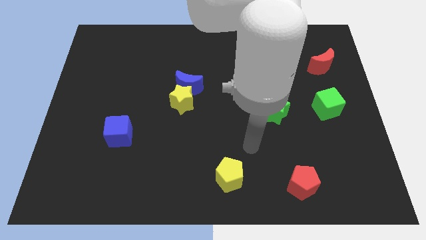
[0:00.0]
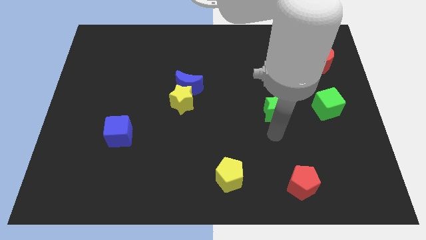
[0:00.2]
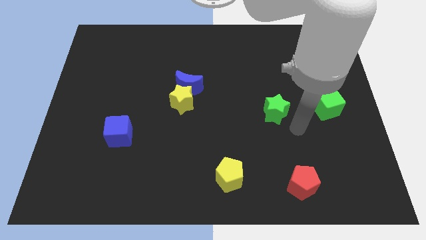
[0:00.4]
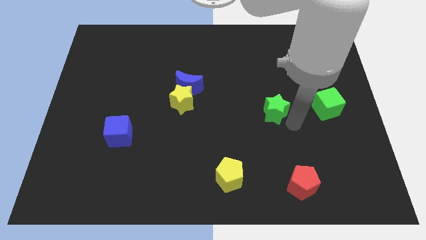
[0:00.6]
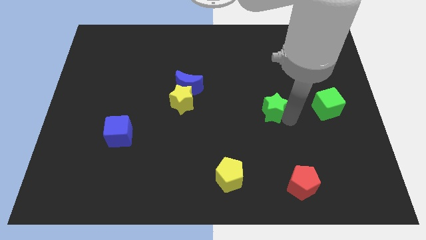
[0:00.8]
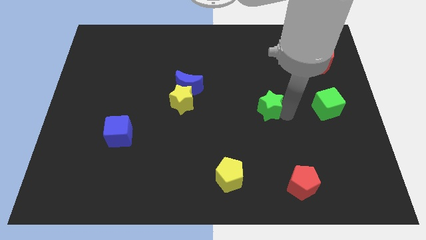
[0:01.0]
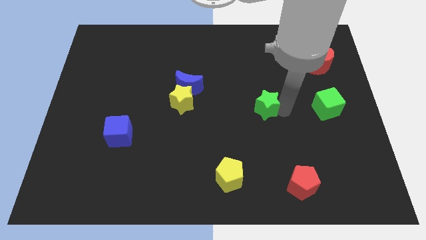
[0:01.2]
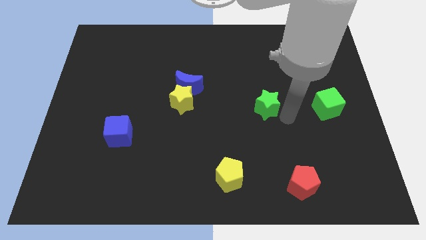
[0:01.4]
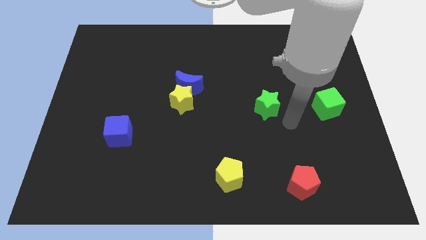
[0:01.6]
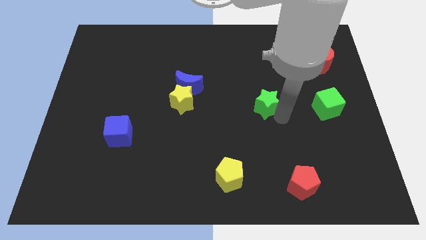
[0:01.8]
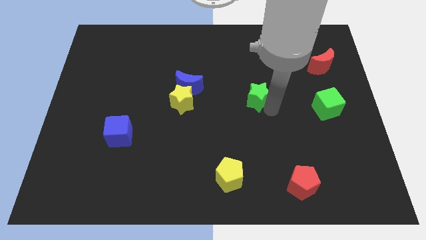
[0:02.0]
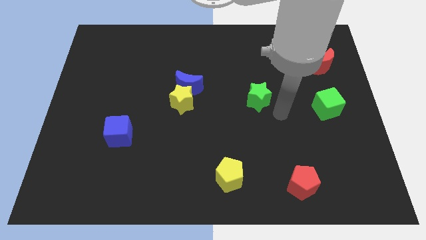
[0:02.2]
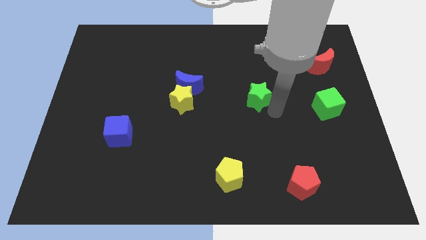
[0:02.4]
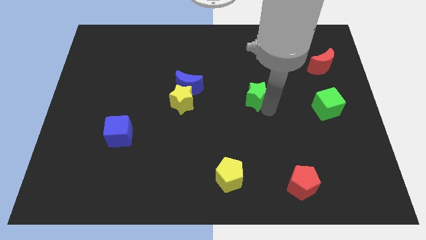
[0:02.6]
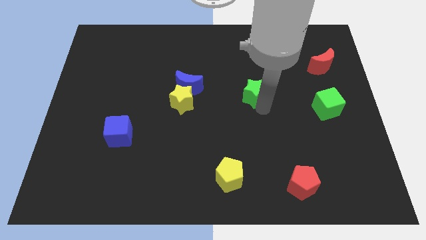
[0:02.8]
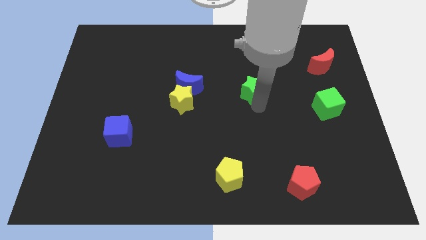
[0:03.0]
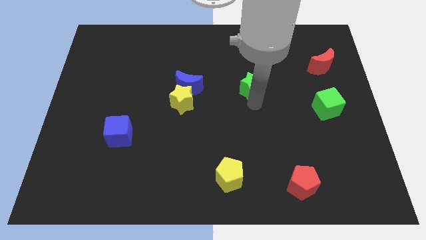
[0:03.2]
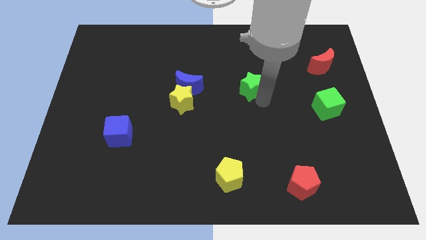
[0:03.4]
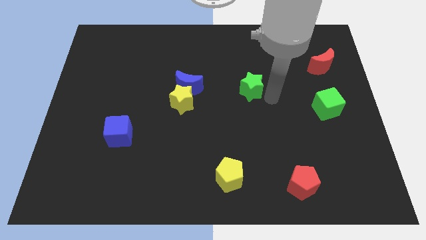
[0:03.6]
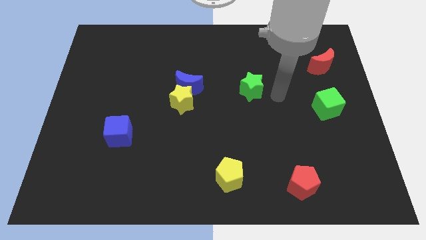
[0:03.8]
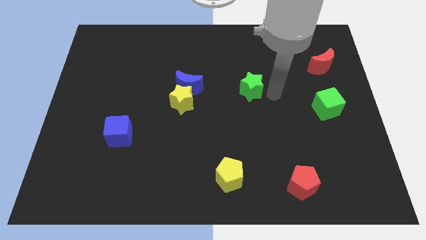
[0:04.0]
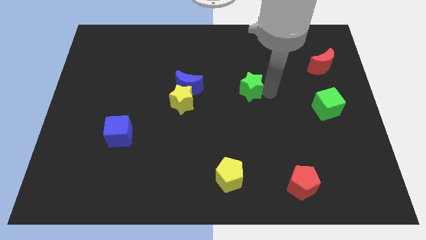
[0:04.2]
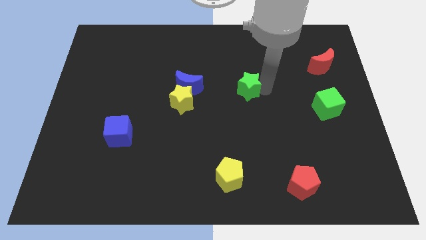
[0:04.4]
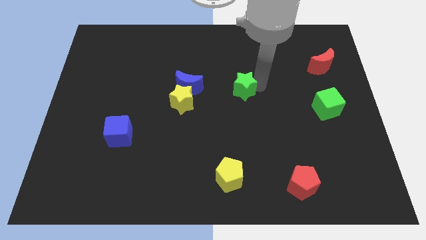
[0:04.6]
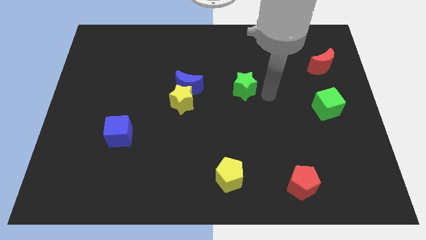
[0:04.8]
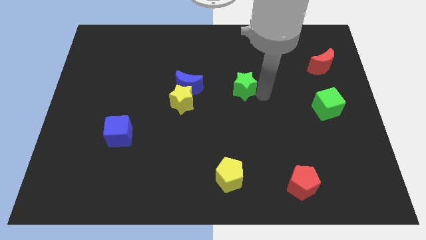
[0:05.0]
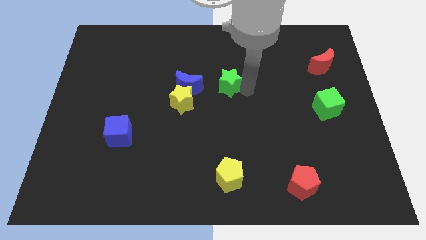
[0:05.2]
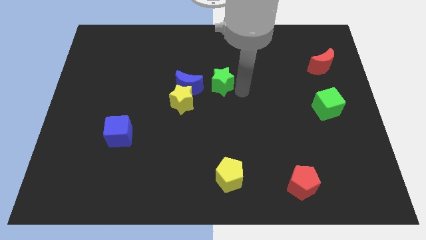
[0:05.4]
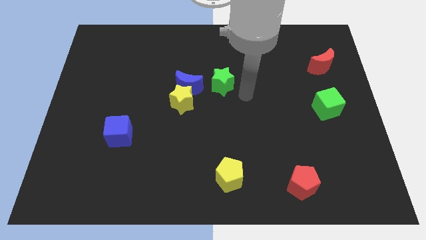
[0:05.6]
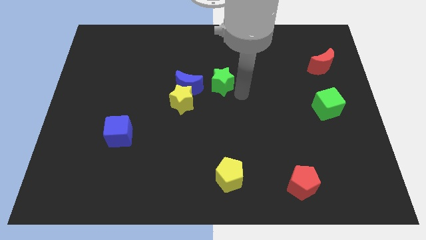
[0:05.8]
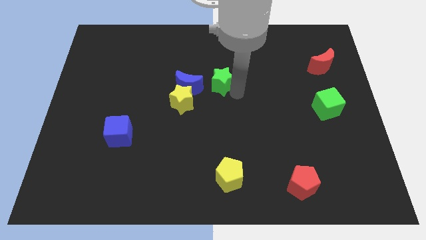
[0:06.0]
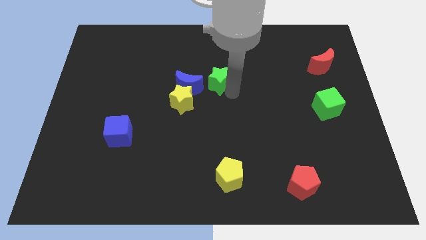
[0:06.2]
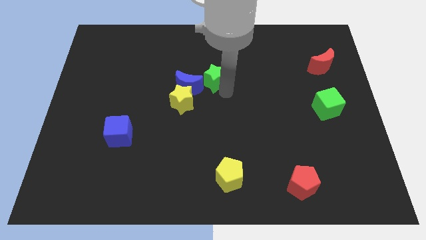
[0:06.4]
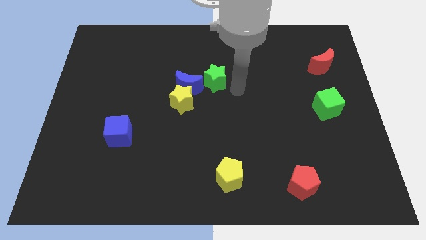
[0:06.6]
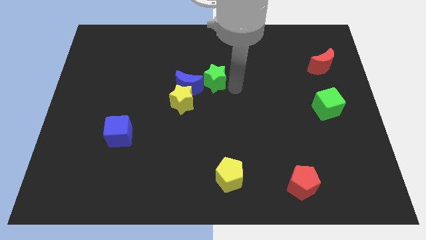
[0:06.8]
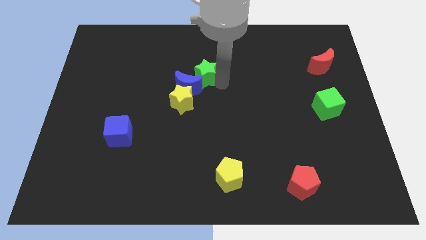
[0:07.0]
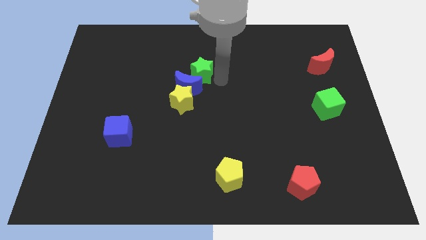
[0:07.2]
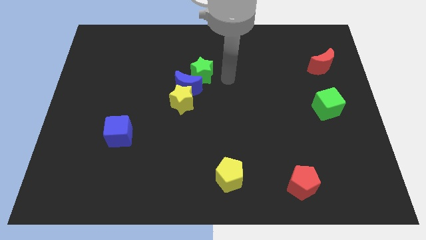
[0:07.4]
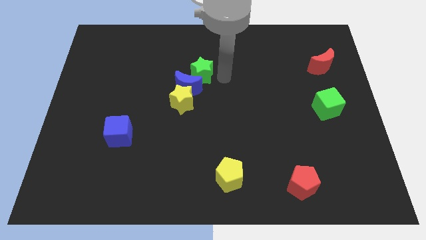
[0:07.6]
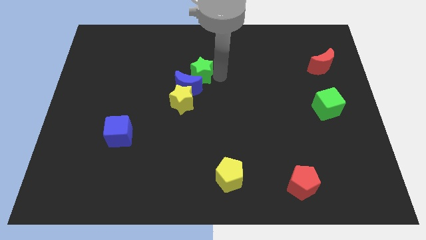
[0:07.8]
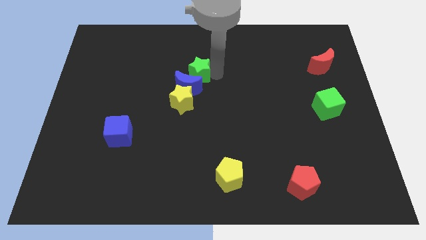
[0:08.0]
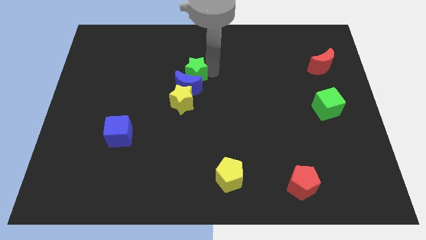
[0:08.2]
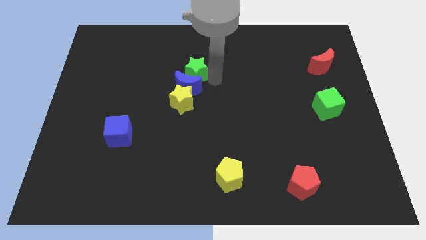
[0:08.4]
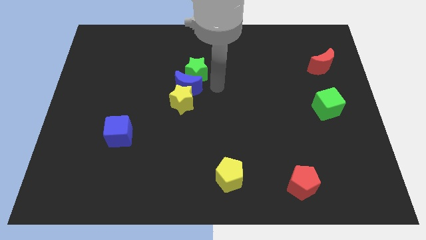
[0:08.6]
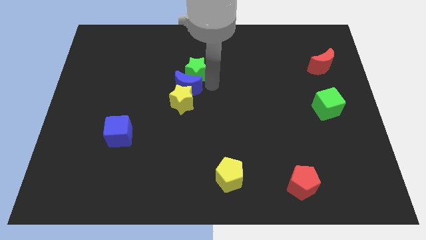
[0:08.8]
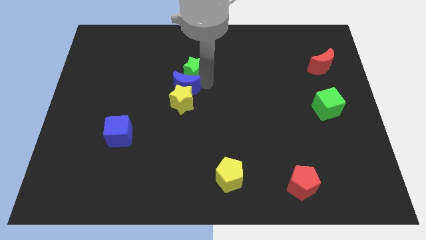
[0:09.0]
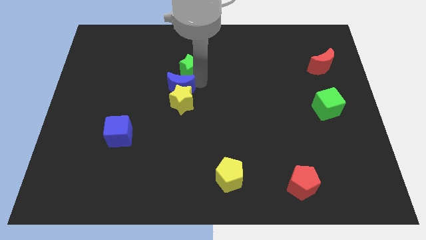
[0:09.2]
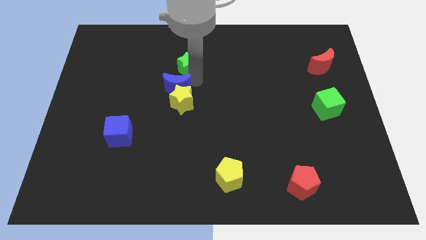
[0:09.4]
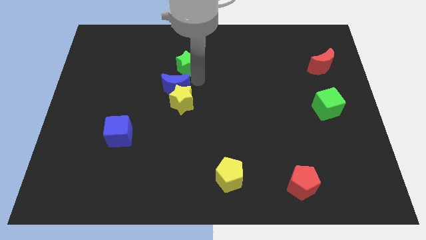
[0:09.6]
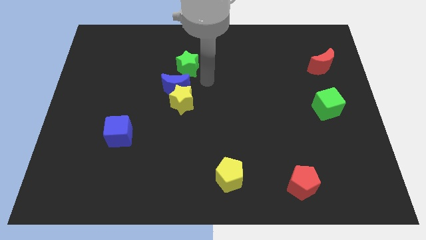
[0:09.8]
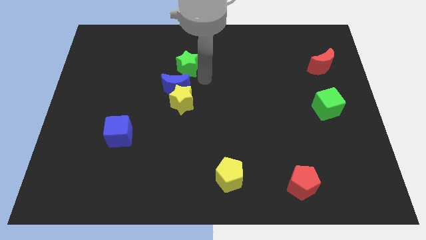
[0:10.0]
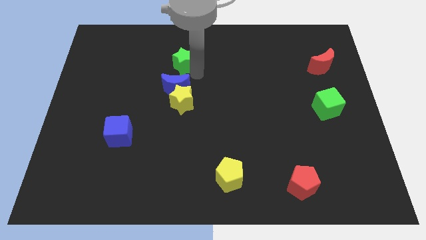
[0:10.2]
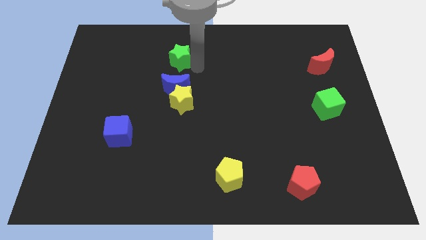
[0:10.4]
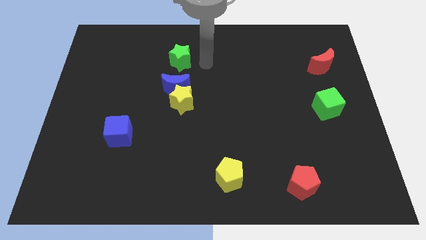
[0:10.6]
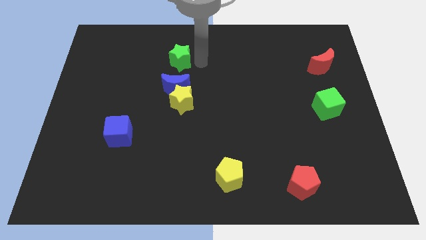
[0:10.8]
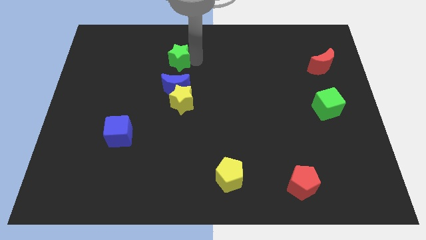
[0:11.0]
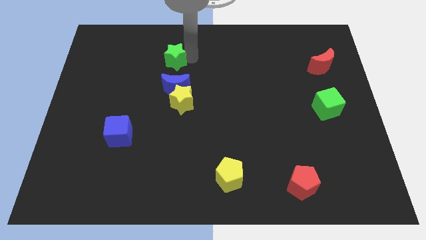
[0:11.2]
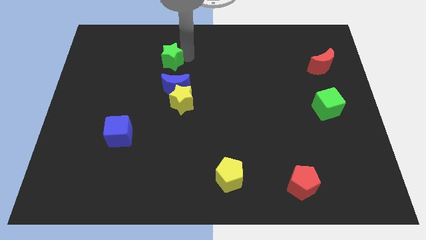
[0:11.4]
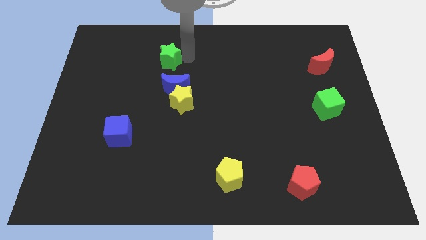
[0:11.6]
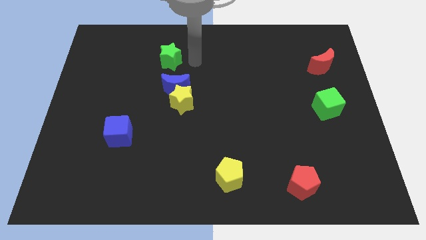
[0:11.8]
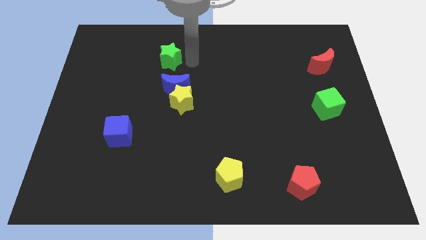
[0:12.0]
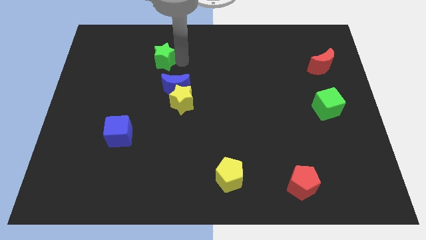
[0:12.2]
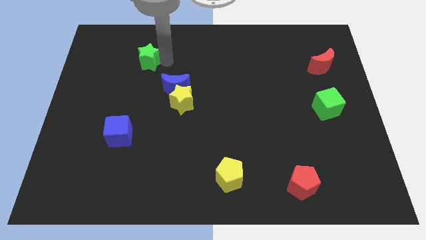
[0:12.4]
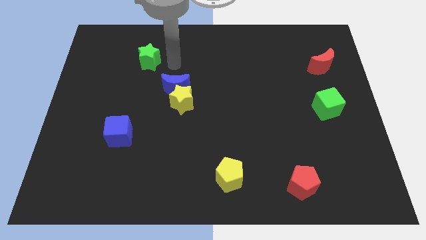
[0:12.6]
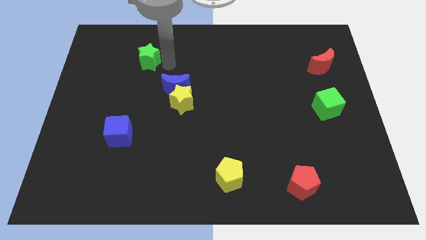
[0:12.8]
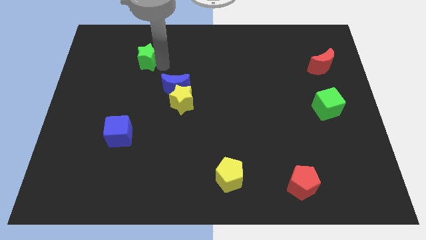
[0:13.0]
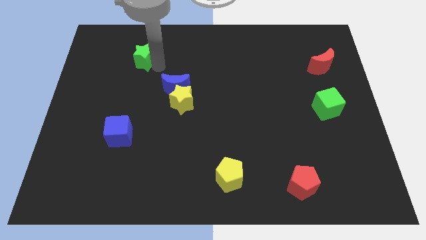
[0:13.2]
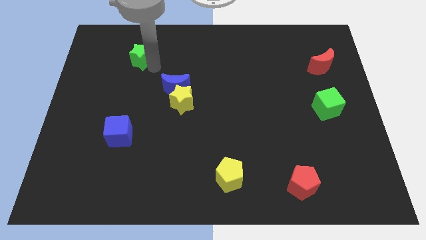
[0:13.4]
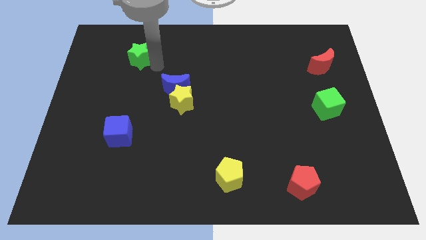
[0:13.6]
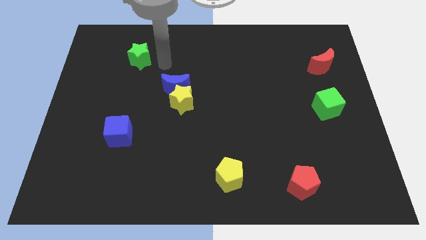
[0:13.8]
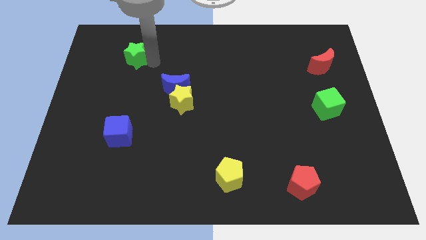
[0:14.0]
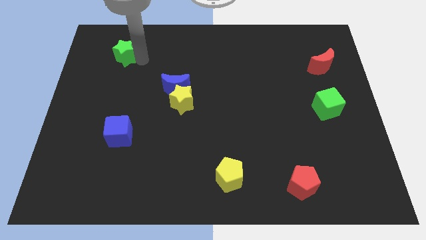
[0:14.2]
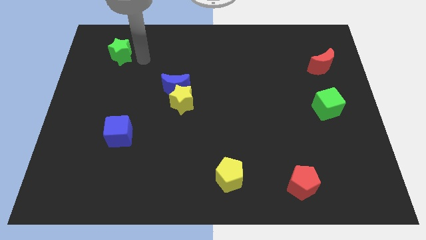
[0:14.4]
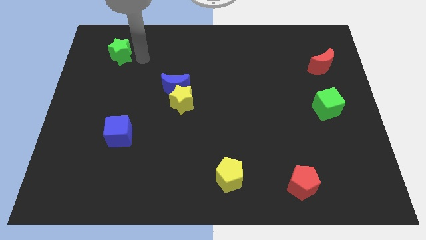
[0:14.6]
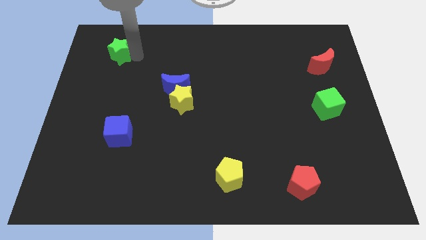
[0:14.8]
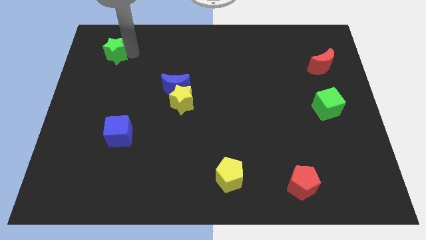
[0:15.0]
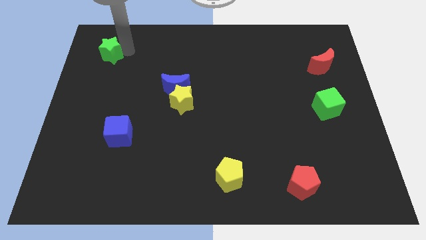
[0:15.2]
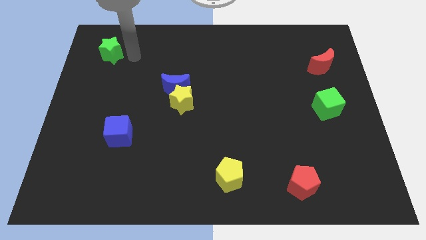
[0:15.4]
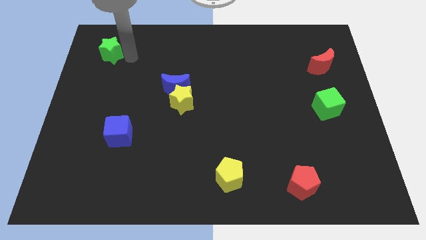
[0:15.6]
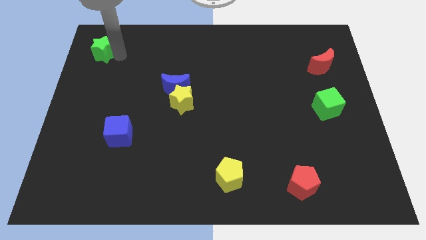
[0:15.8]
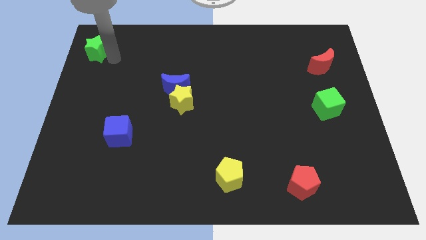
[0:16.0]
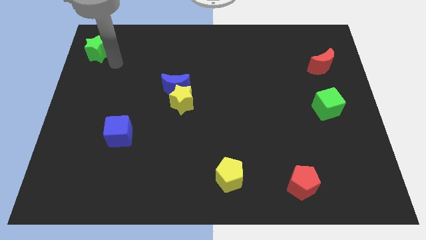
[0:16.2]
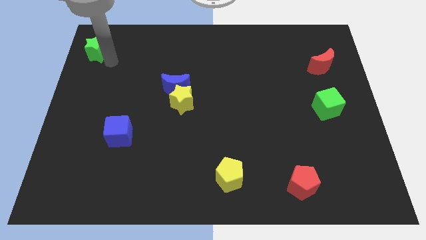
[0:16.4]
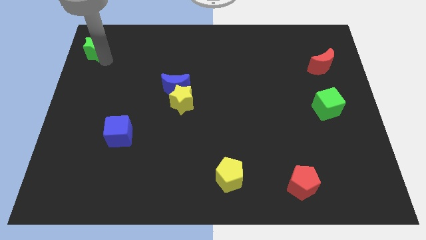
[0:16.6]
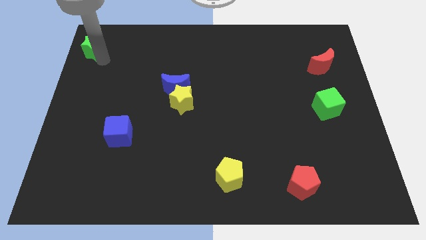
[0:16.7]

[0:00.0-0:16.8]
slide the green star to the upper left corner
